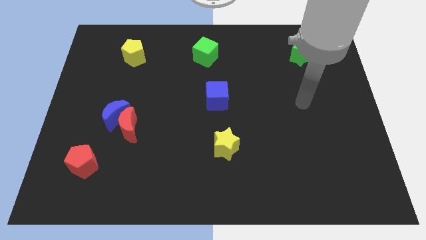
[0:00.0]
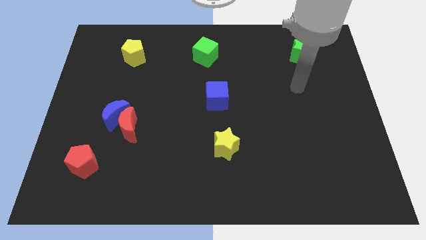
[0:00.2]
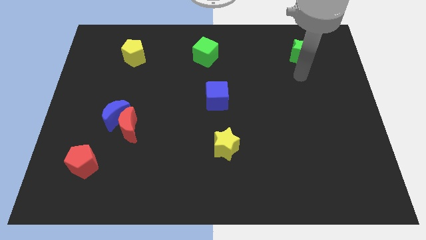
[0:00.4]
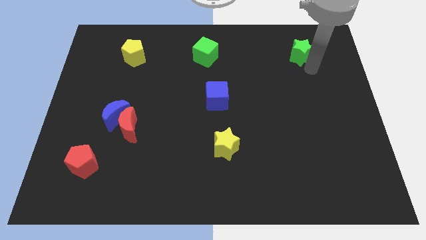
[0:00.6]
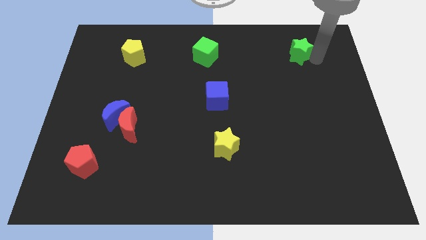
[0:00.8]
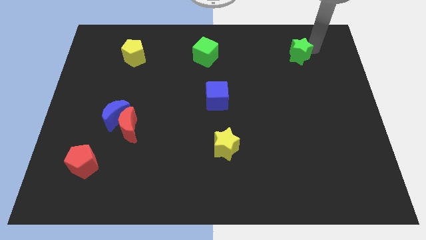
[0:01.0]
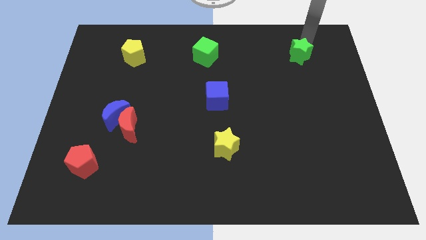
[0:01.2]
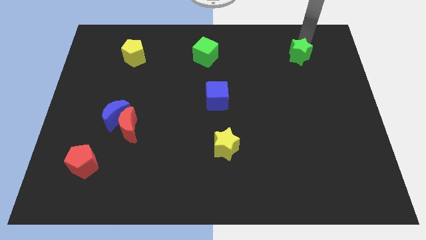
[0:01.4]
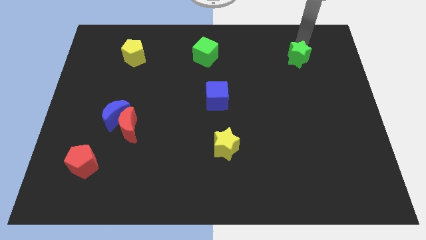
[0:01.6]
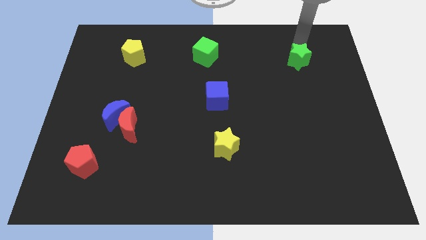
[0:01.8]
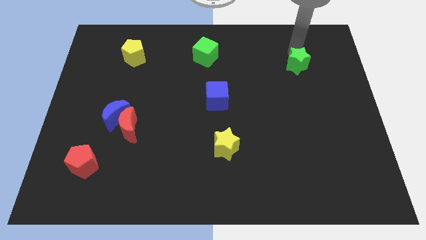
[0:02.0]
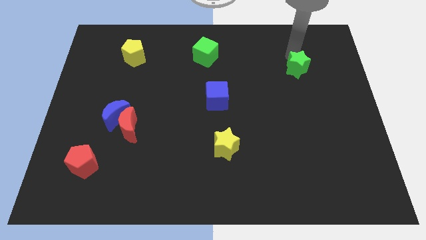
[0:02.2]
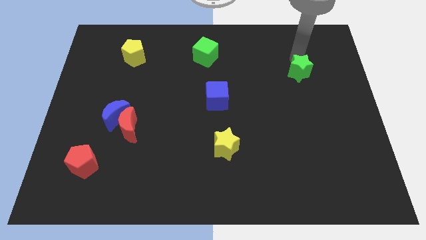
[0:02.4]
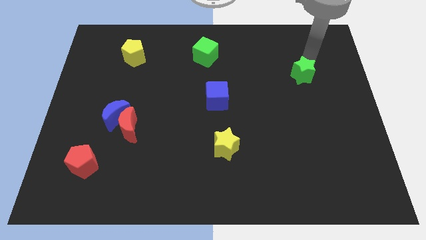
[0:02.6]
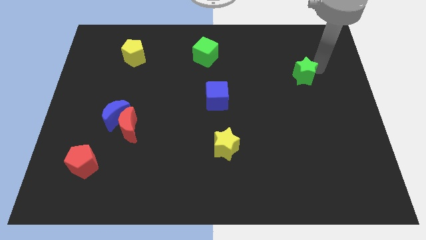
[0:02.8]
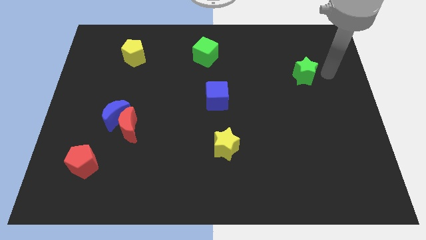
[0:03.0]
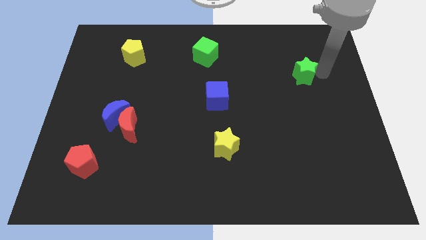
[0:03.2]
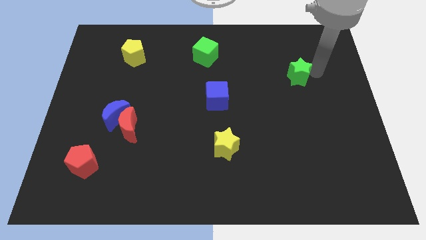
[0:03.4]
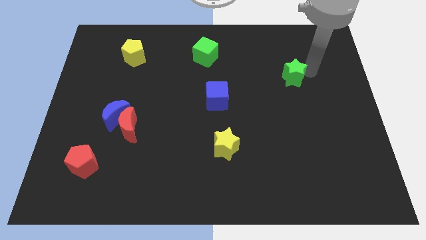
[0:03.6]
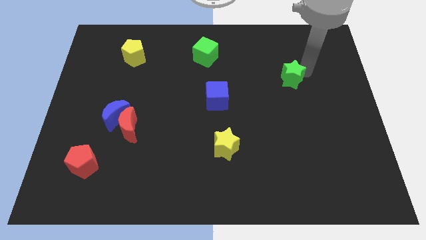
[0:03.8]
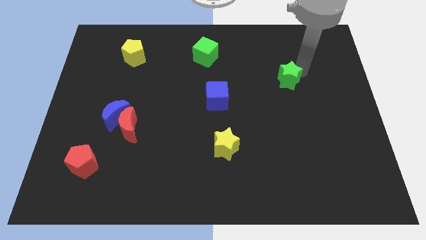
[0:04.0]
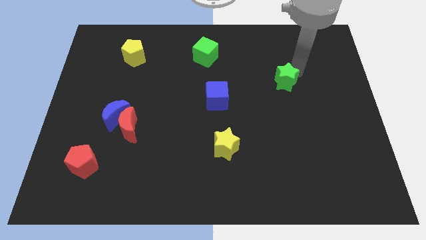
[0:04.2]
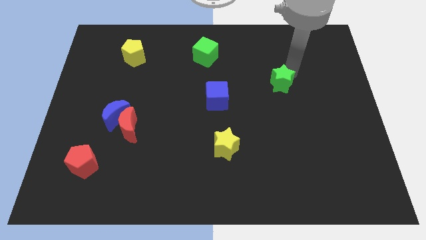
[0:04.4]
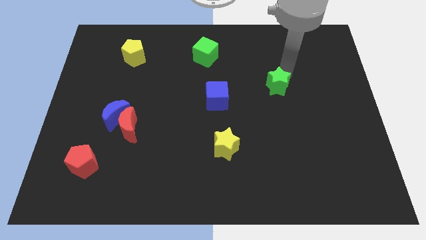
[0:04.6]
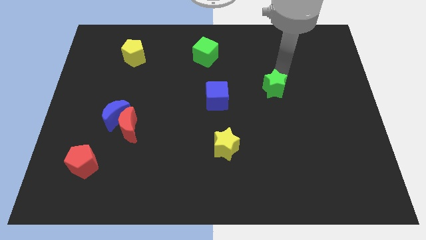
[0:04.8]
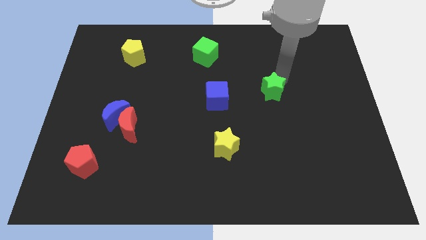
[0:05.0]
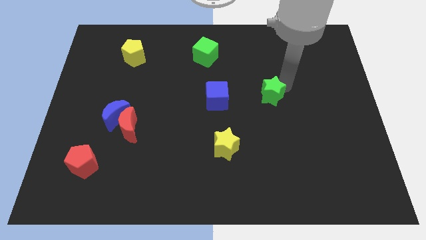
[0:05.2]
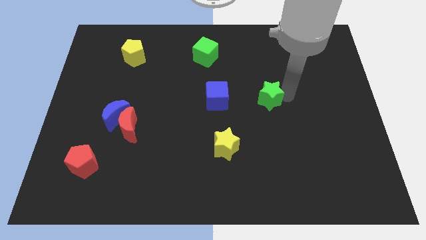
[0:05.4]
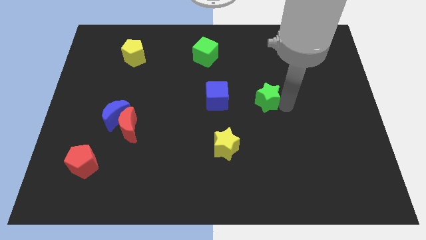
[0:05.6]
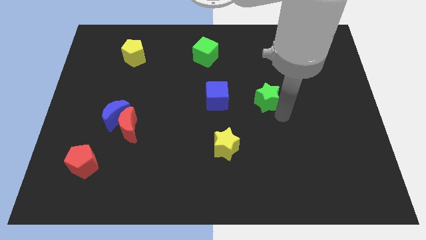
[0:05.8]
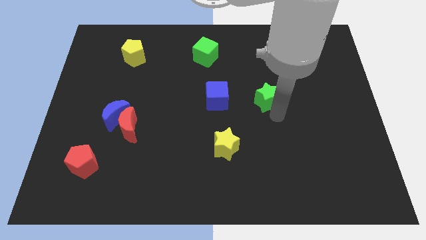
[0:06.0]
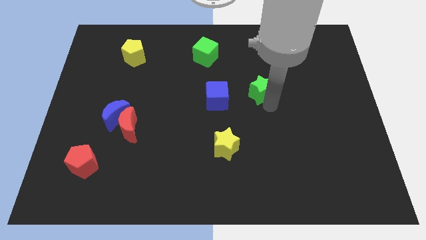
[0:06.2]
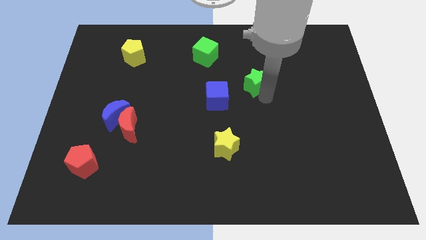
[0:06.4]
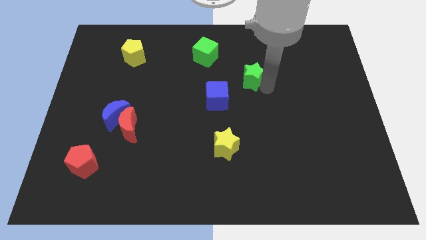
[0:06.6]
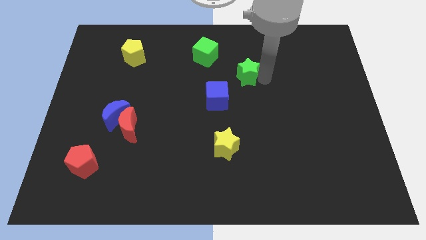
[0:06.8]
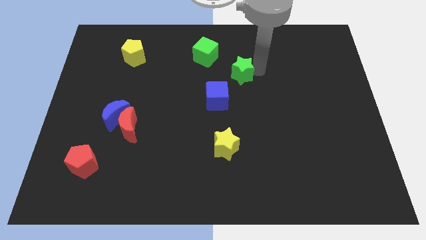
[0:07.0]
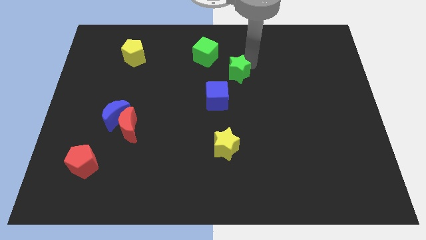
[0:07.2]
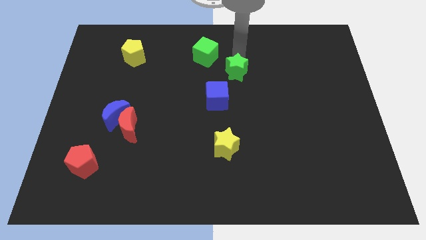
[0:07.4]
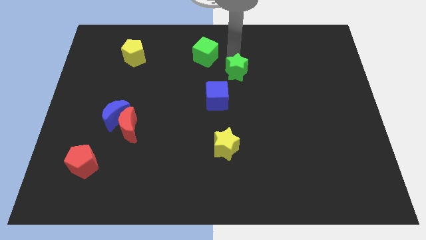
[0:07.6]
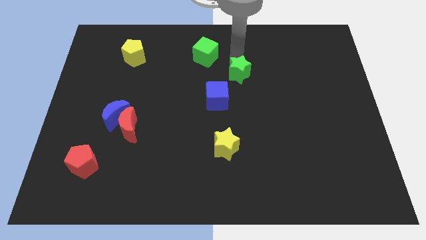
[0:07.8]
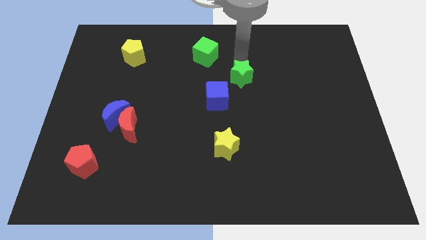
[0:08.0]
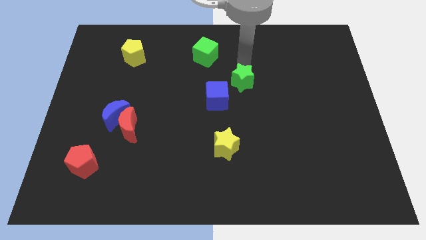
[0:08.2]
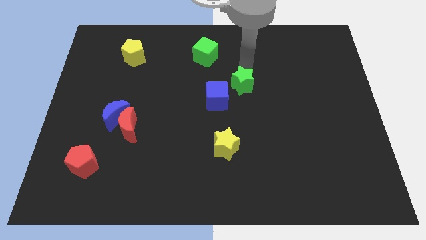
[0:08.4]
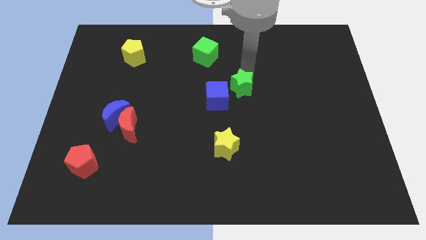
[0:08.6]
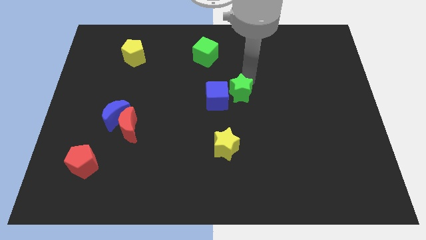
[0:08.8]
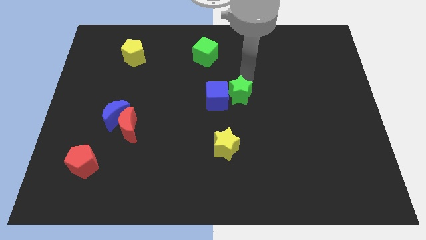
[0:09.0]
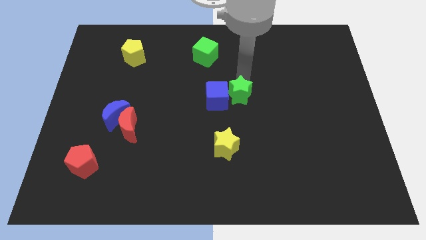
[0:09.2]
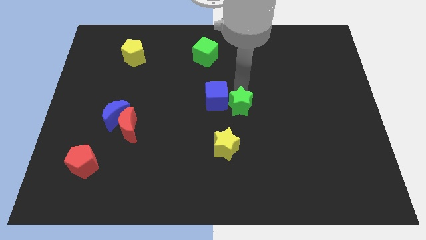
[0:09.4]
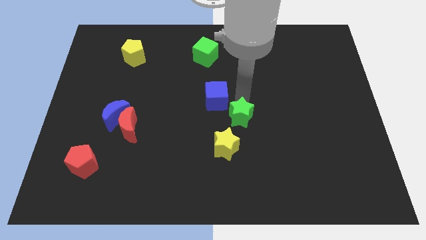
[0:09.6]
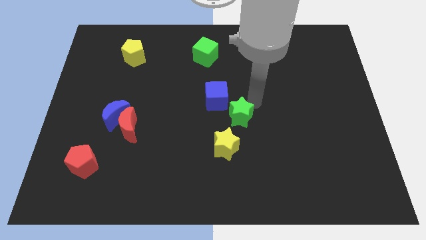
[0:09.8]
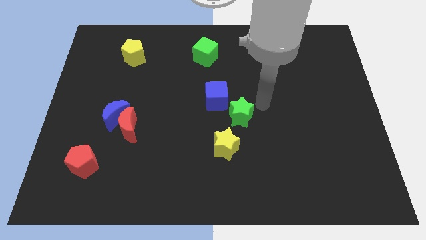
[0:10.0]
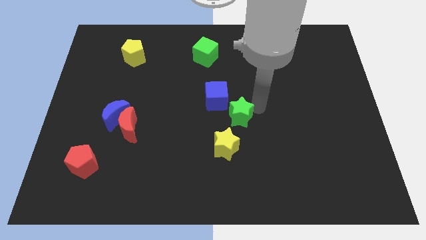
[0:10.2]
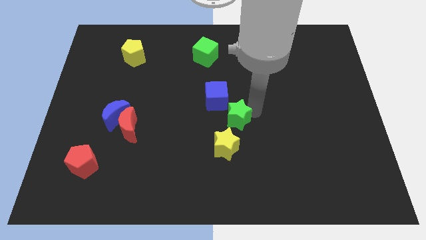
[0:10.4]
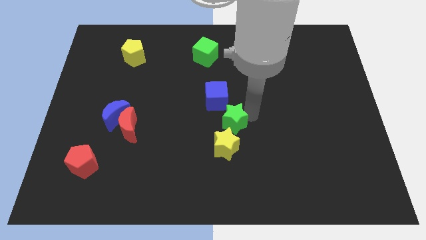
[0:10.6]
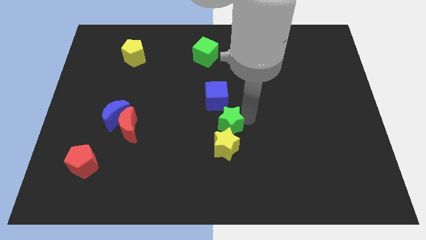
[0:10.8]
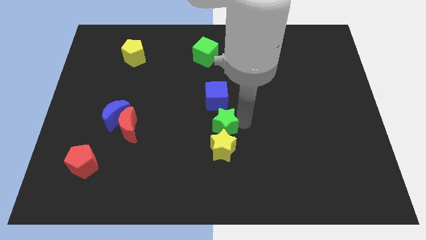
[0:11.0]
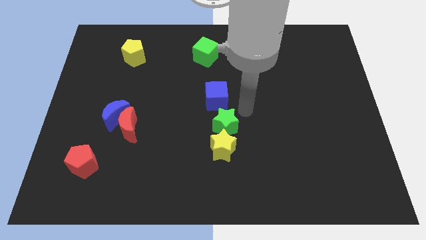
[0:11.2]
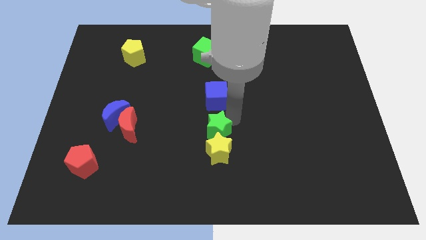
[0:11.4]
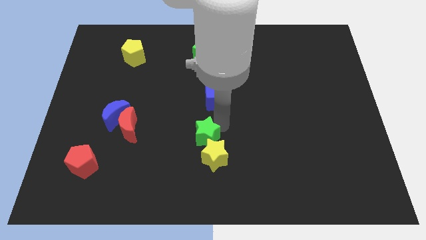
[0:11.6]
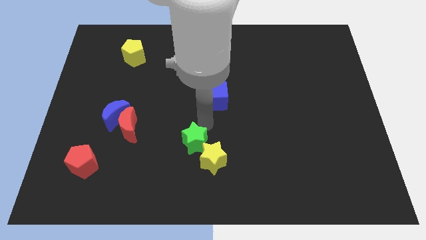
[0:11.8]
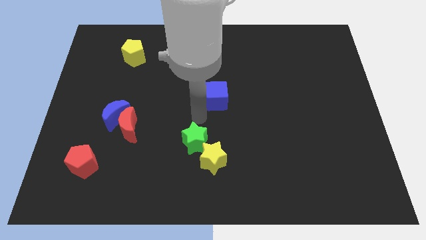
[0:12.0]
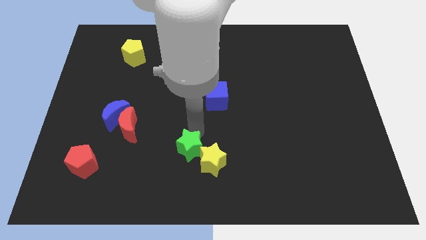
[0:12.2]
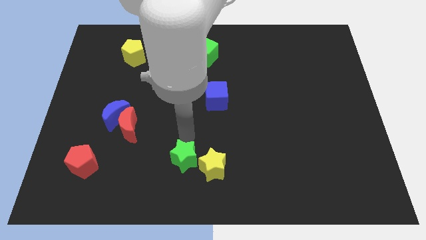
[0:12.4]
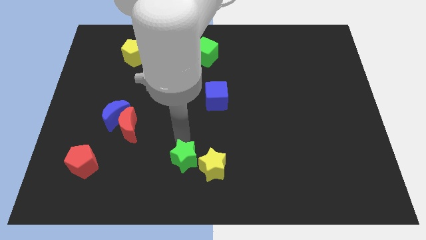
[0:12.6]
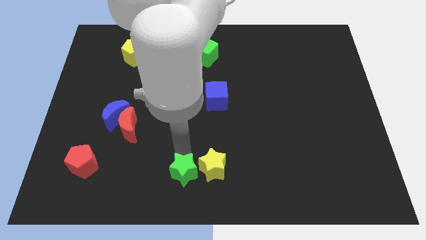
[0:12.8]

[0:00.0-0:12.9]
push the green star to the bottom left of the yellow star

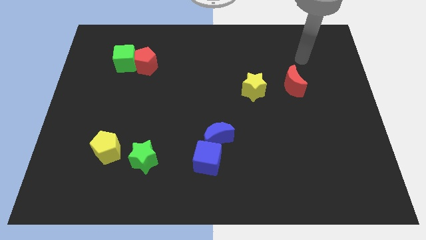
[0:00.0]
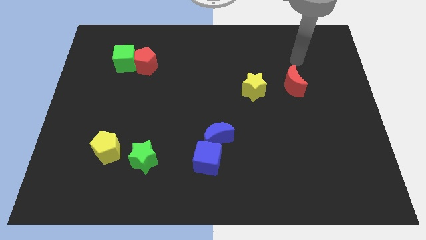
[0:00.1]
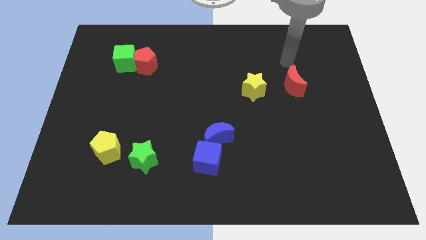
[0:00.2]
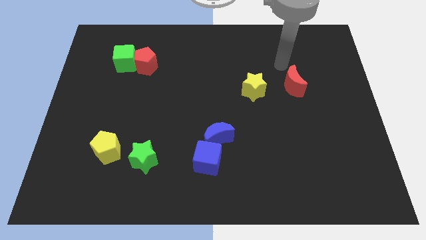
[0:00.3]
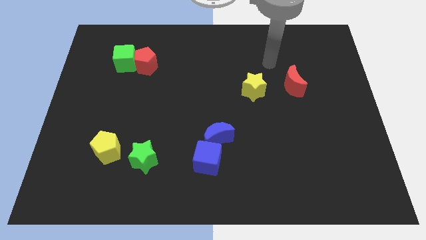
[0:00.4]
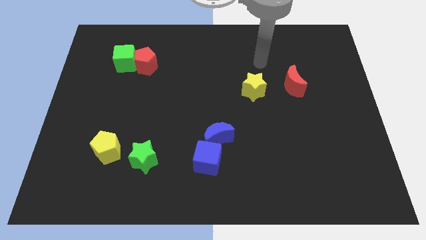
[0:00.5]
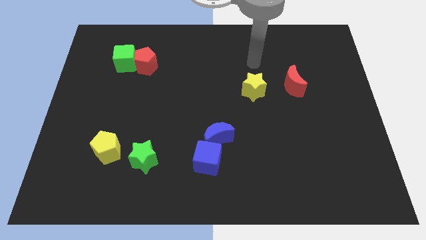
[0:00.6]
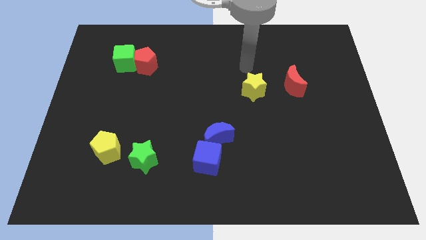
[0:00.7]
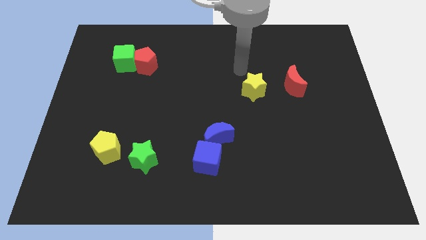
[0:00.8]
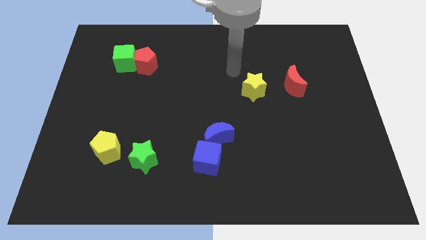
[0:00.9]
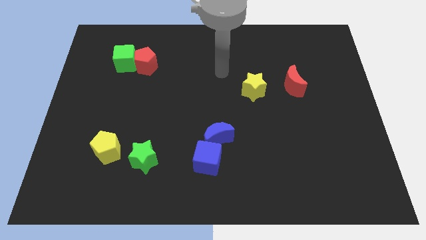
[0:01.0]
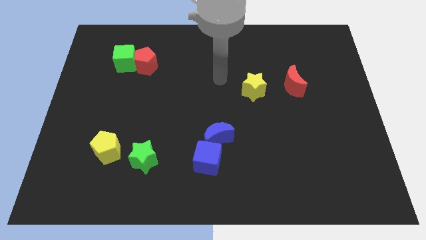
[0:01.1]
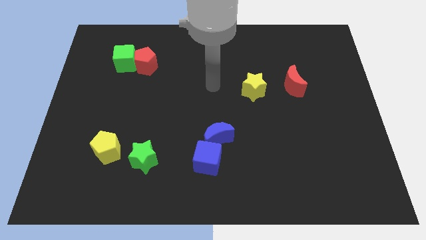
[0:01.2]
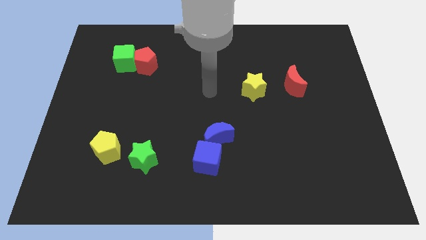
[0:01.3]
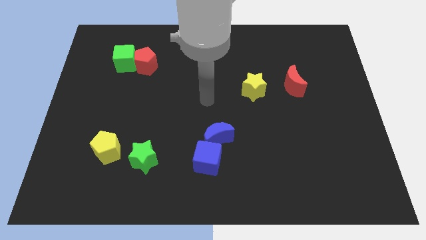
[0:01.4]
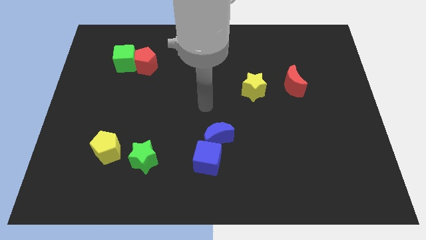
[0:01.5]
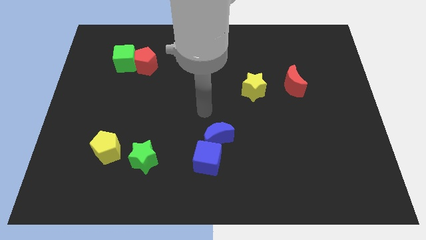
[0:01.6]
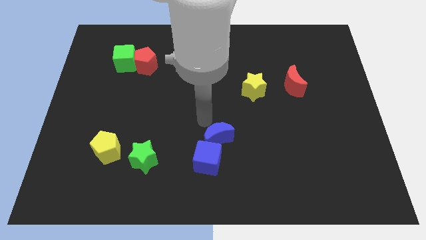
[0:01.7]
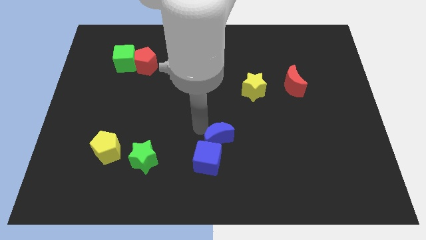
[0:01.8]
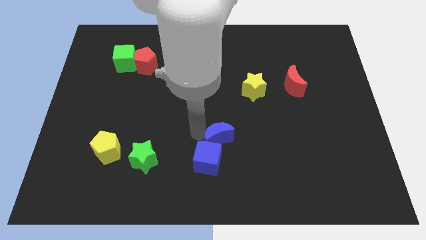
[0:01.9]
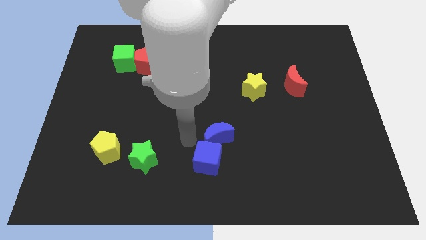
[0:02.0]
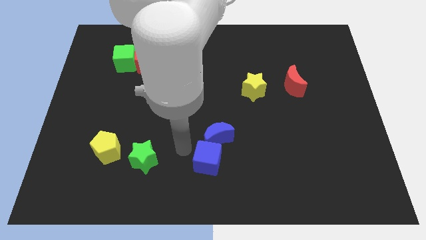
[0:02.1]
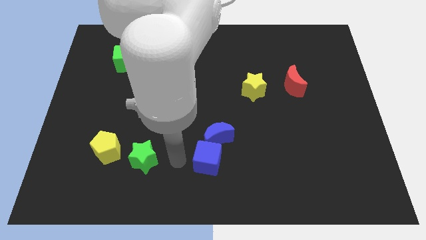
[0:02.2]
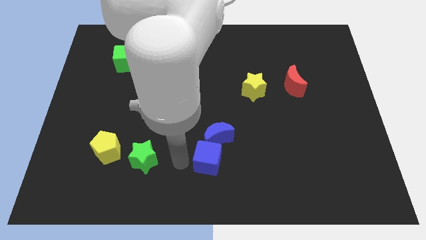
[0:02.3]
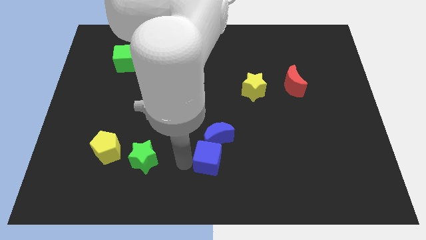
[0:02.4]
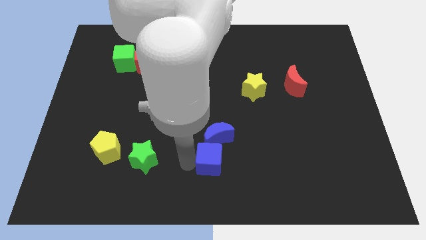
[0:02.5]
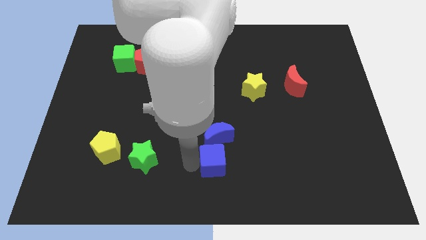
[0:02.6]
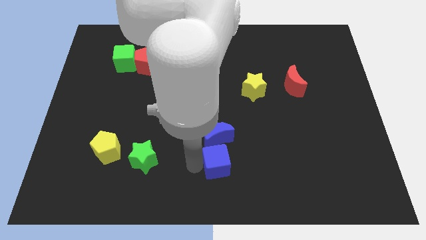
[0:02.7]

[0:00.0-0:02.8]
push the blue cube to the bottom right of the blue moon
